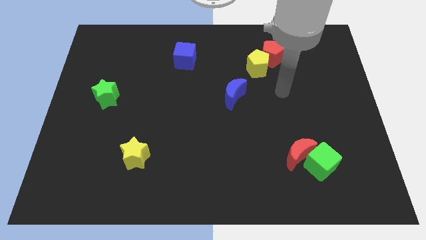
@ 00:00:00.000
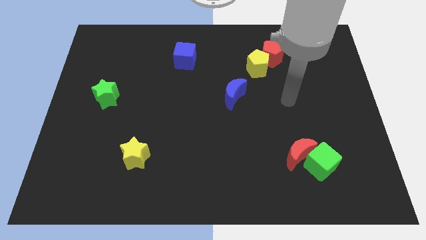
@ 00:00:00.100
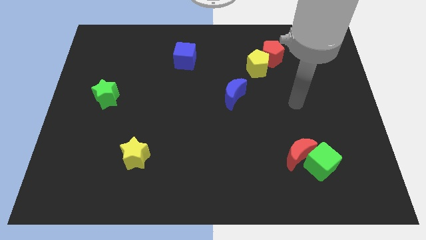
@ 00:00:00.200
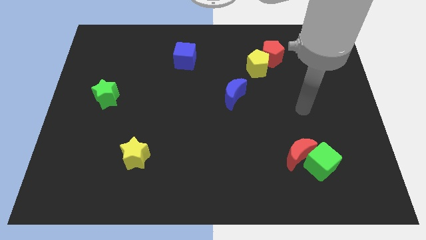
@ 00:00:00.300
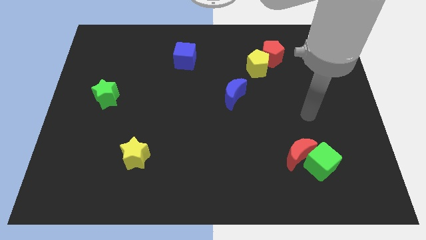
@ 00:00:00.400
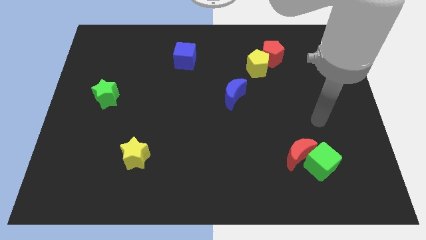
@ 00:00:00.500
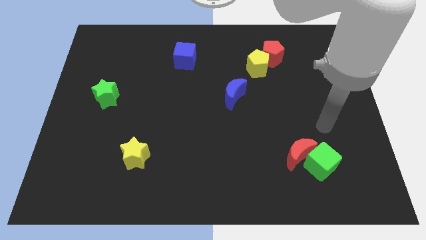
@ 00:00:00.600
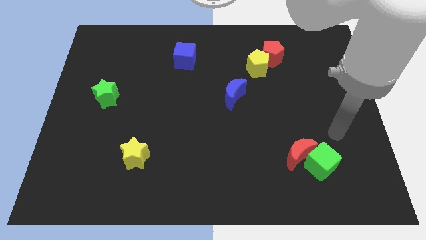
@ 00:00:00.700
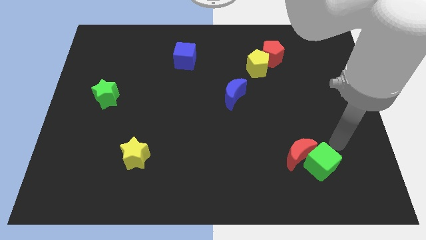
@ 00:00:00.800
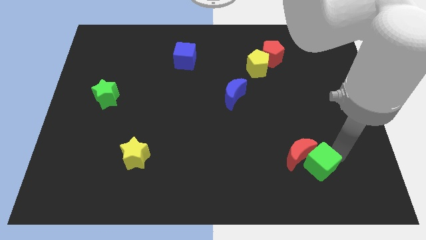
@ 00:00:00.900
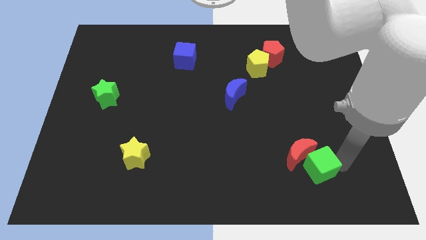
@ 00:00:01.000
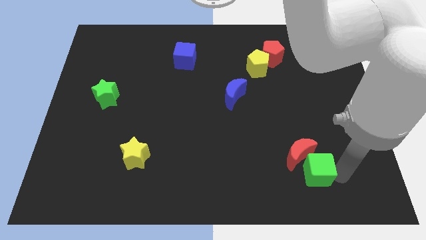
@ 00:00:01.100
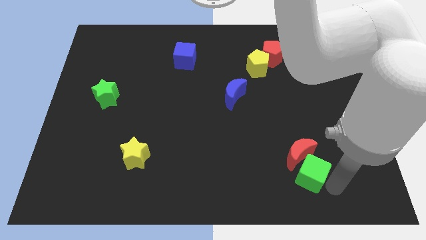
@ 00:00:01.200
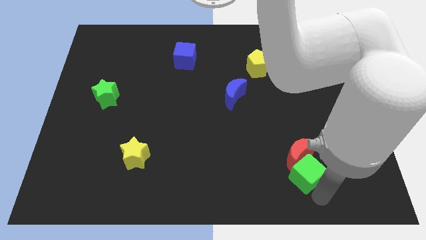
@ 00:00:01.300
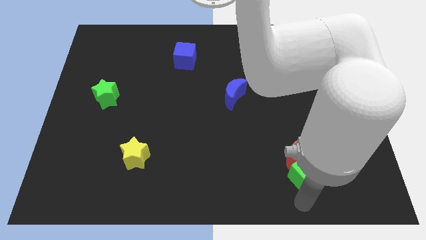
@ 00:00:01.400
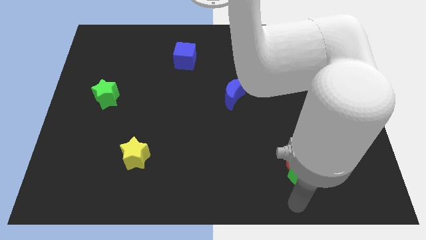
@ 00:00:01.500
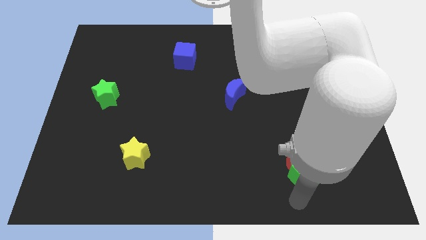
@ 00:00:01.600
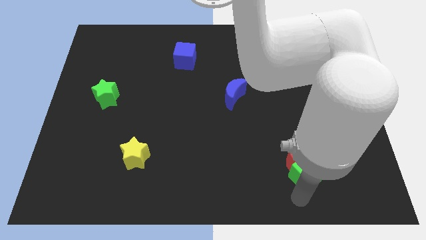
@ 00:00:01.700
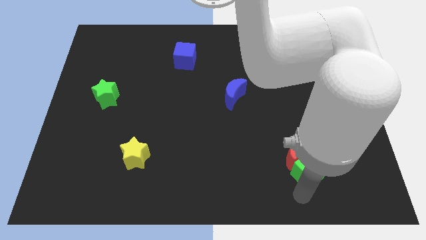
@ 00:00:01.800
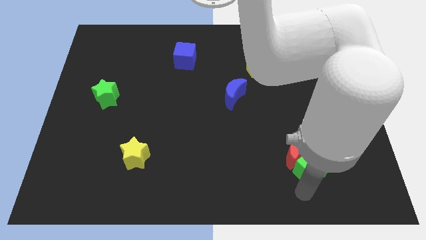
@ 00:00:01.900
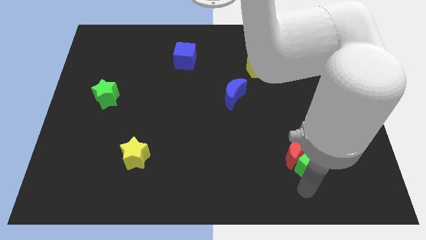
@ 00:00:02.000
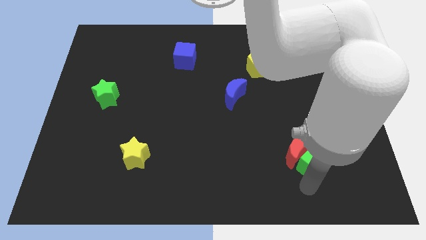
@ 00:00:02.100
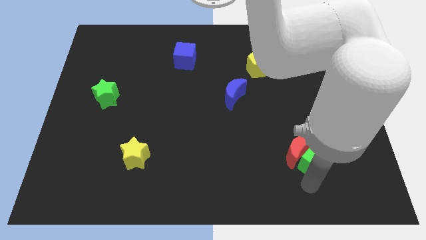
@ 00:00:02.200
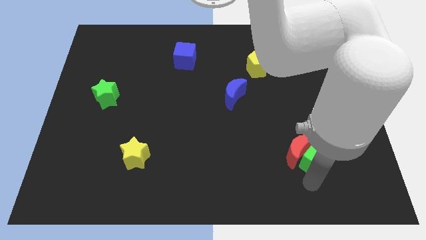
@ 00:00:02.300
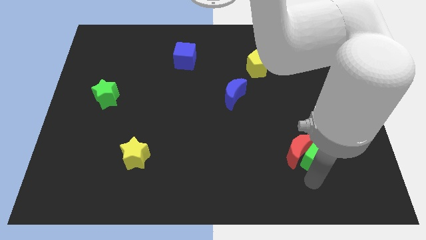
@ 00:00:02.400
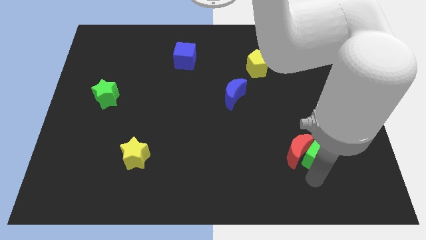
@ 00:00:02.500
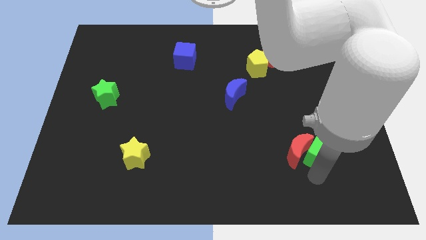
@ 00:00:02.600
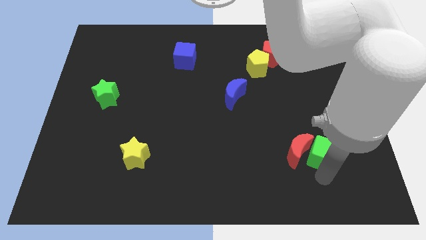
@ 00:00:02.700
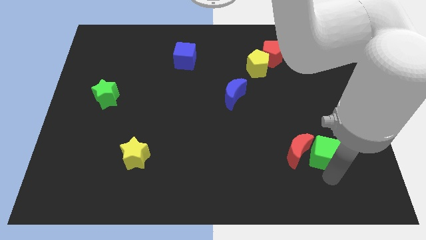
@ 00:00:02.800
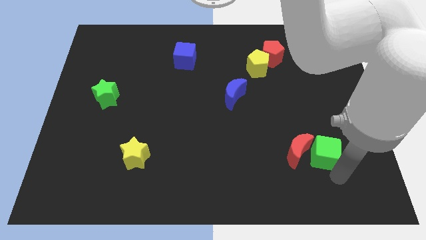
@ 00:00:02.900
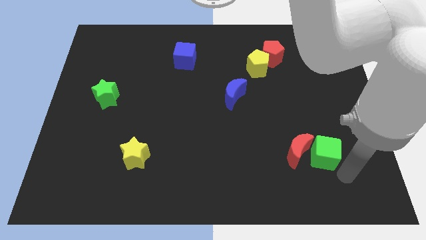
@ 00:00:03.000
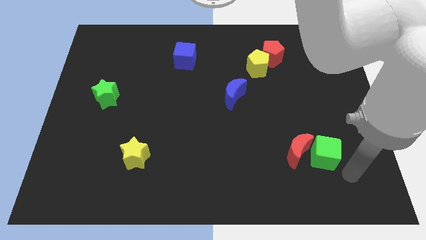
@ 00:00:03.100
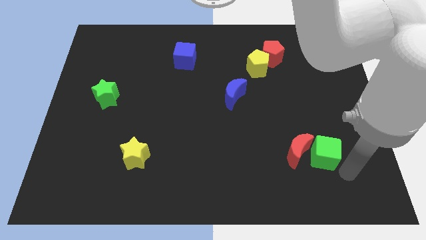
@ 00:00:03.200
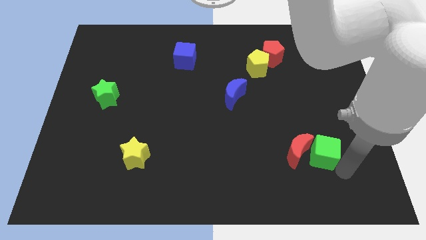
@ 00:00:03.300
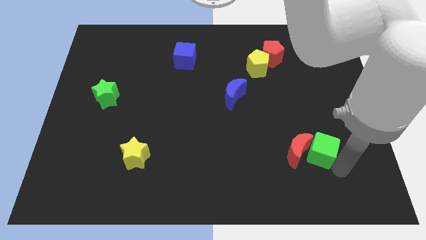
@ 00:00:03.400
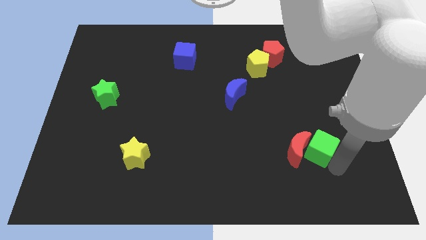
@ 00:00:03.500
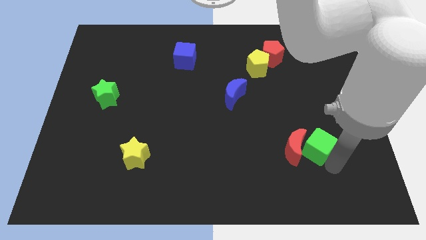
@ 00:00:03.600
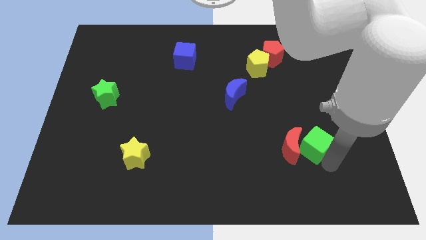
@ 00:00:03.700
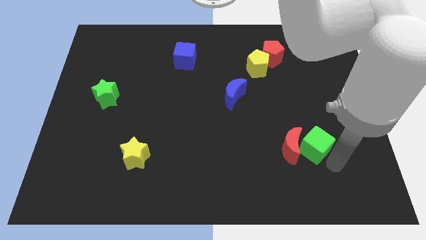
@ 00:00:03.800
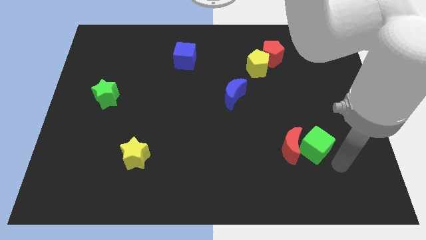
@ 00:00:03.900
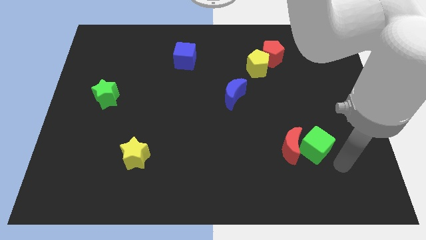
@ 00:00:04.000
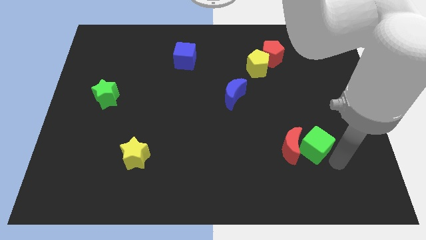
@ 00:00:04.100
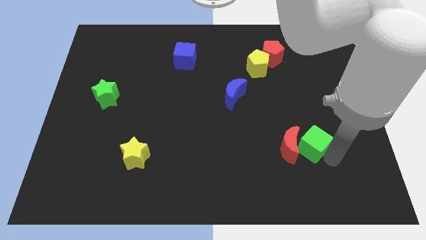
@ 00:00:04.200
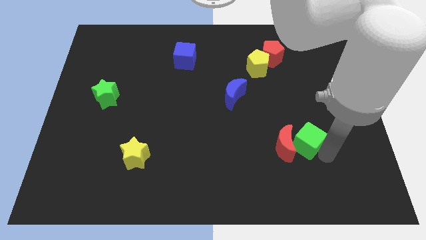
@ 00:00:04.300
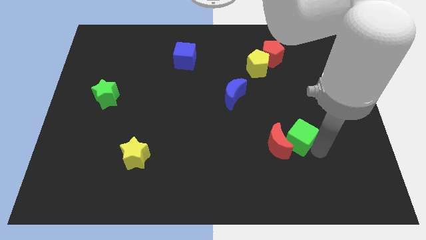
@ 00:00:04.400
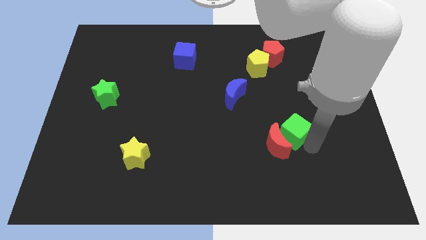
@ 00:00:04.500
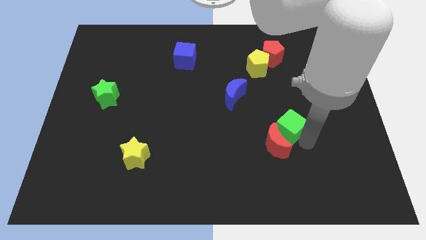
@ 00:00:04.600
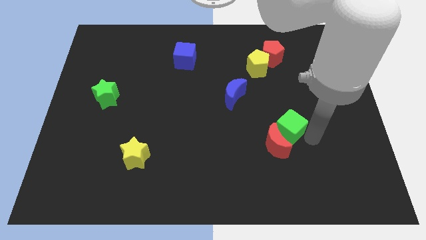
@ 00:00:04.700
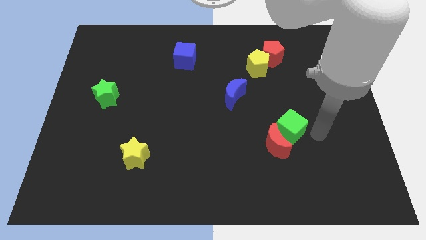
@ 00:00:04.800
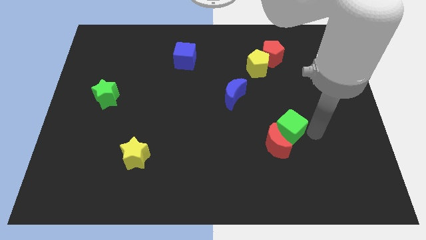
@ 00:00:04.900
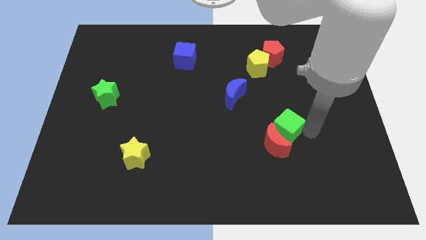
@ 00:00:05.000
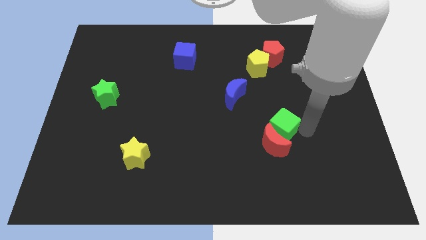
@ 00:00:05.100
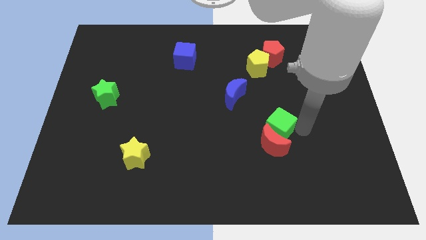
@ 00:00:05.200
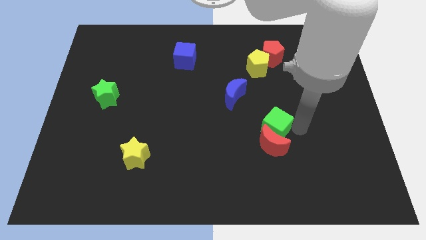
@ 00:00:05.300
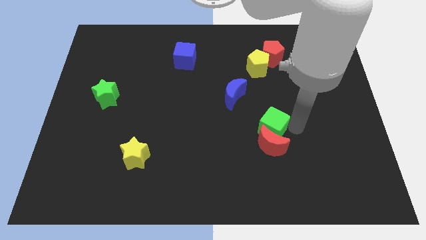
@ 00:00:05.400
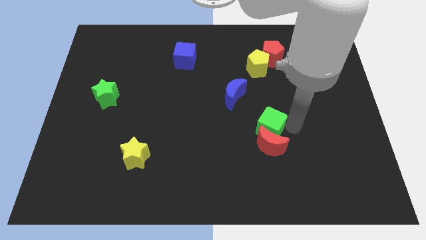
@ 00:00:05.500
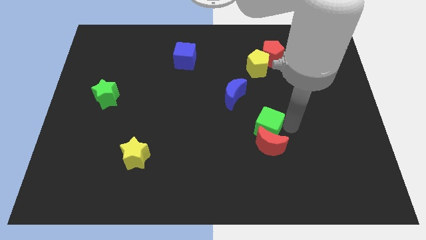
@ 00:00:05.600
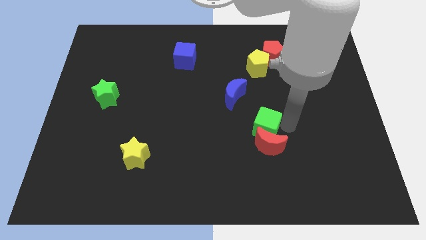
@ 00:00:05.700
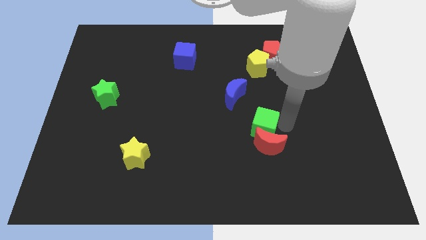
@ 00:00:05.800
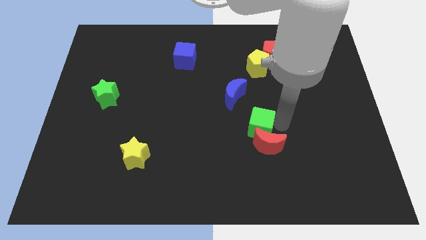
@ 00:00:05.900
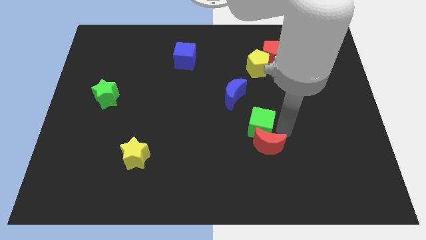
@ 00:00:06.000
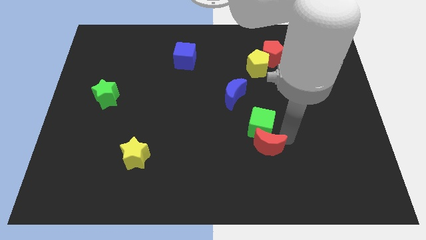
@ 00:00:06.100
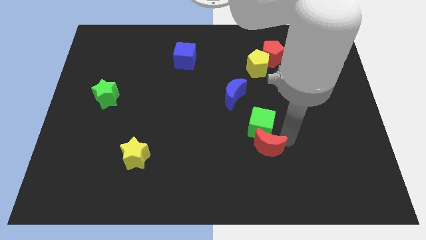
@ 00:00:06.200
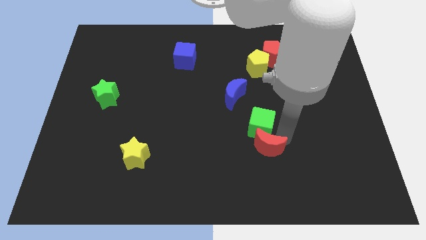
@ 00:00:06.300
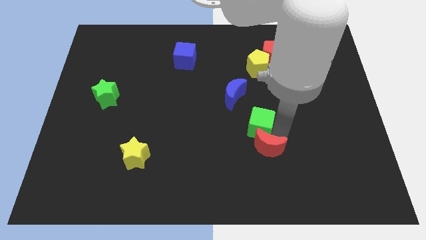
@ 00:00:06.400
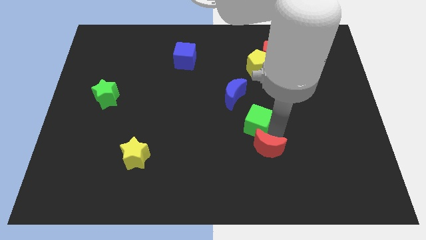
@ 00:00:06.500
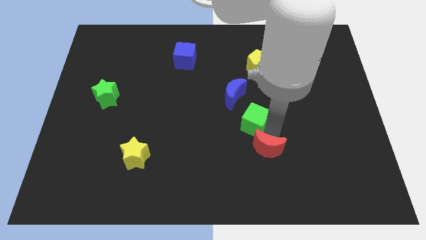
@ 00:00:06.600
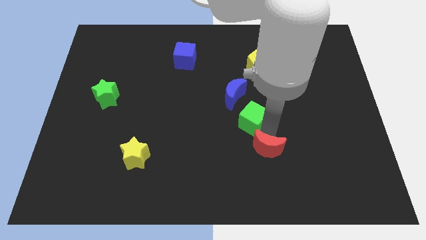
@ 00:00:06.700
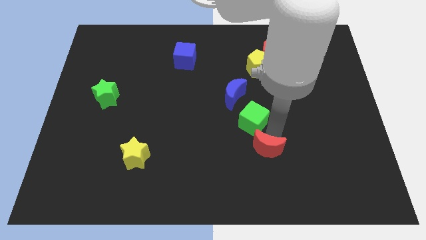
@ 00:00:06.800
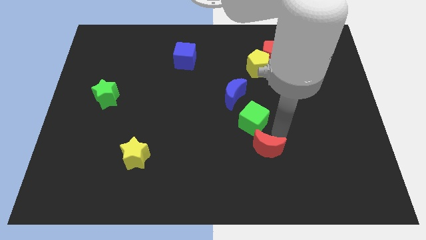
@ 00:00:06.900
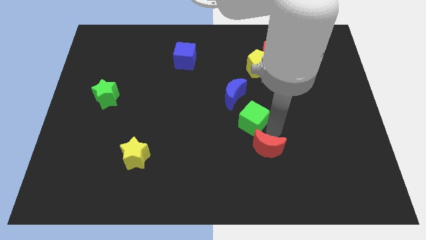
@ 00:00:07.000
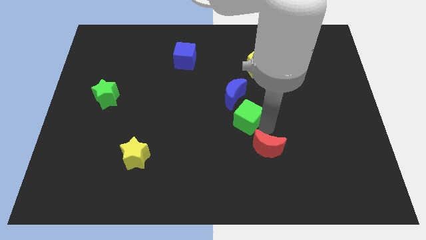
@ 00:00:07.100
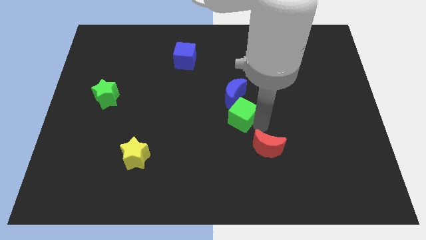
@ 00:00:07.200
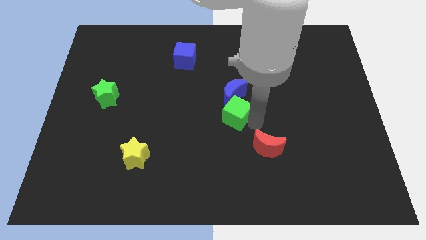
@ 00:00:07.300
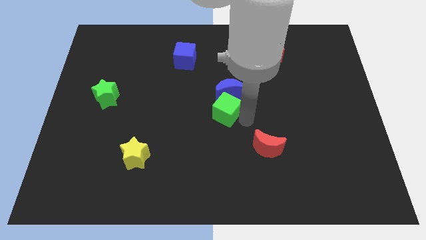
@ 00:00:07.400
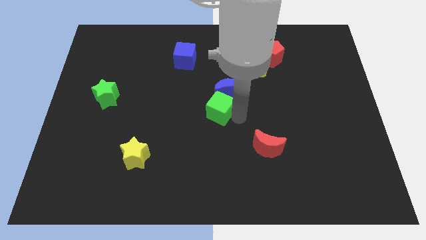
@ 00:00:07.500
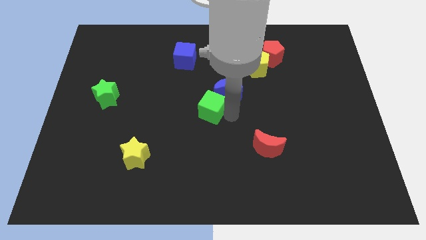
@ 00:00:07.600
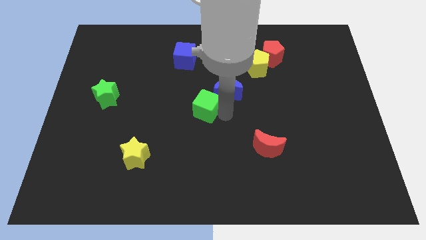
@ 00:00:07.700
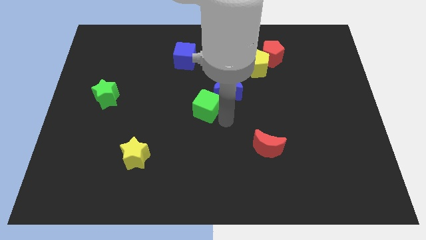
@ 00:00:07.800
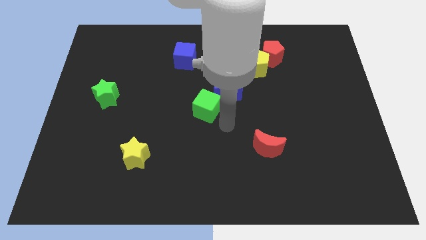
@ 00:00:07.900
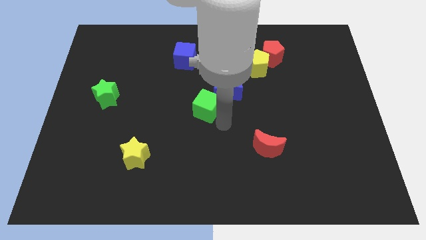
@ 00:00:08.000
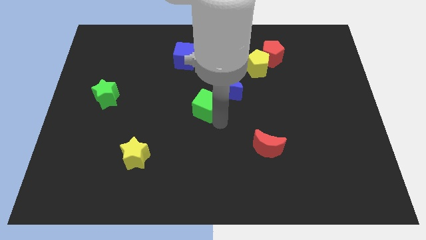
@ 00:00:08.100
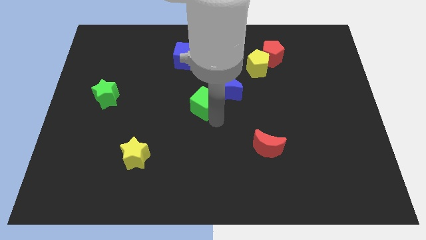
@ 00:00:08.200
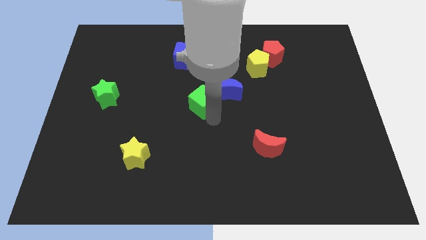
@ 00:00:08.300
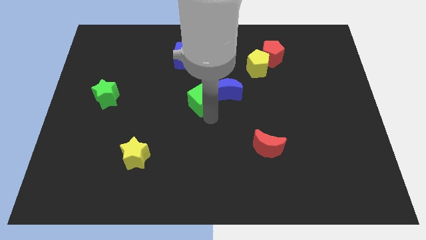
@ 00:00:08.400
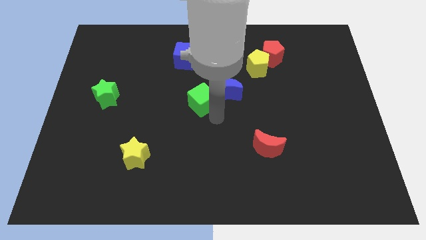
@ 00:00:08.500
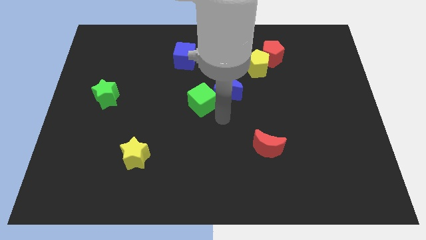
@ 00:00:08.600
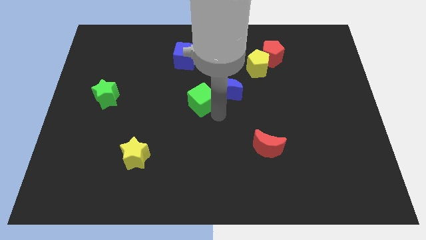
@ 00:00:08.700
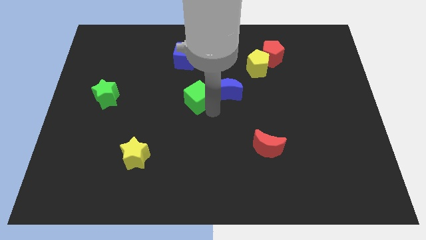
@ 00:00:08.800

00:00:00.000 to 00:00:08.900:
slide the green cube to the bottom side of the blue cube
